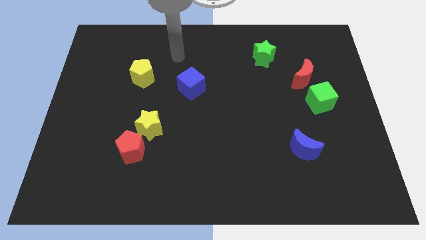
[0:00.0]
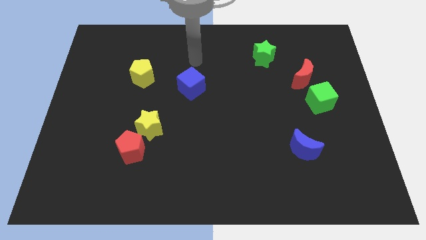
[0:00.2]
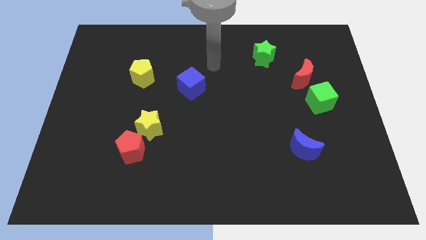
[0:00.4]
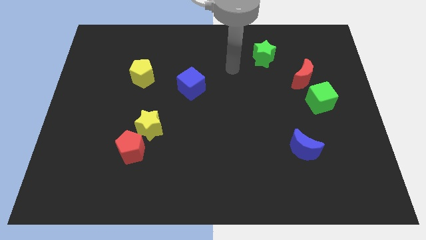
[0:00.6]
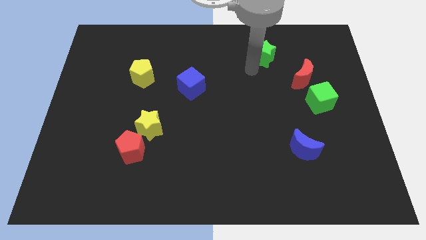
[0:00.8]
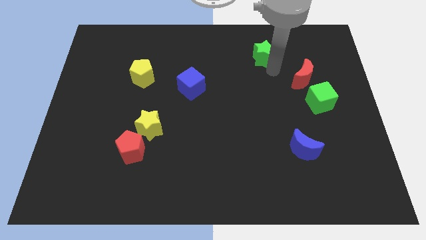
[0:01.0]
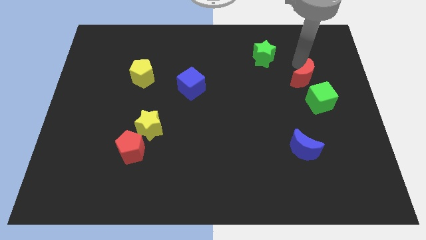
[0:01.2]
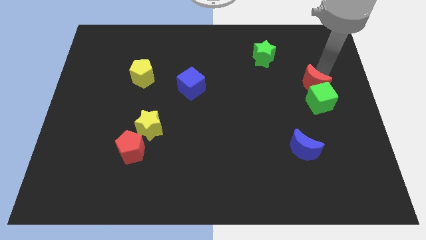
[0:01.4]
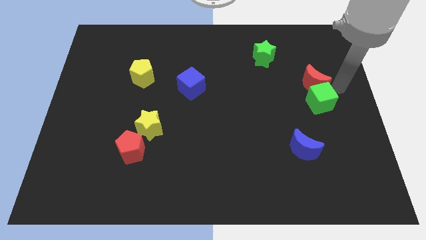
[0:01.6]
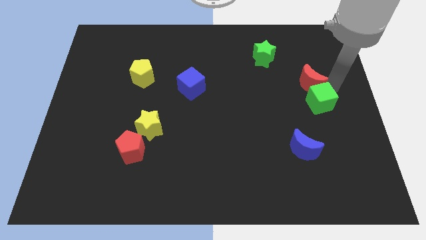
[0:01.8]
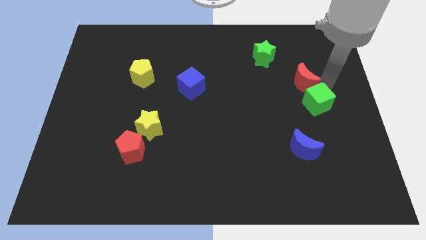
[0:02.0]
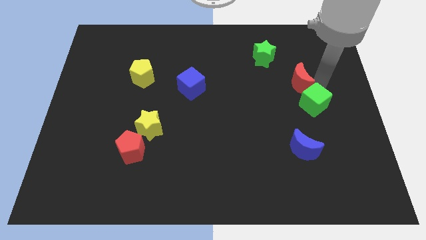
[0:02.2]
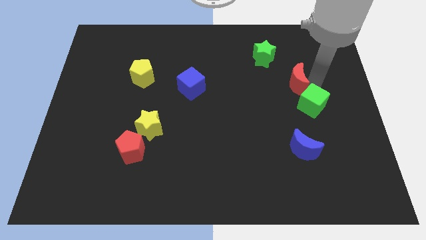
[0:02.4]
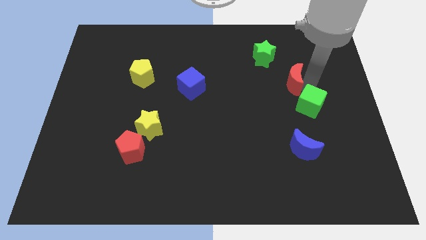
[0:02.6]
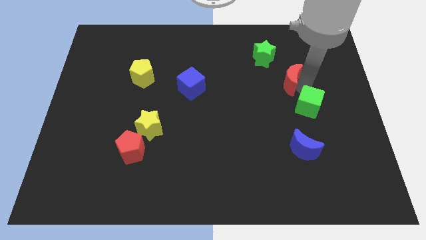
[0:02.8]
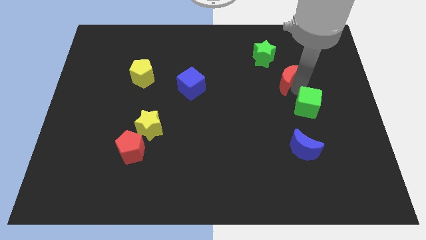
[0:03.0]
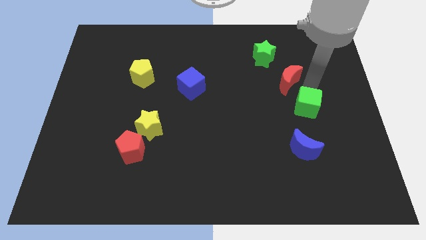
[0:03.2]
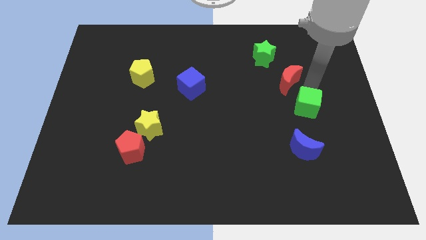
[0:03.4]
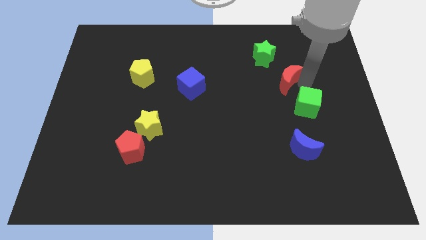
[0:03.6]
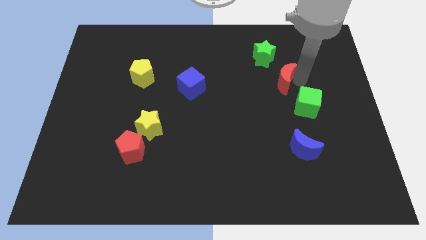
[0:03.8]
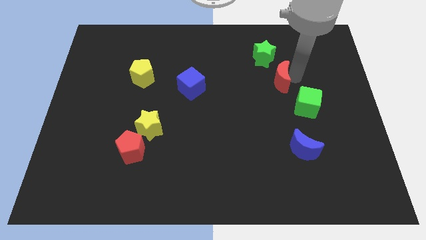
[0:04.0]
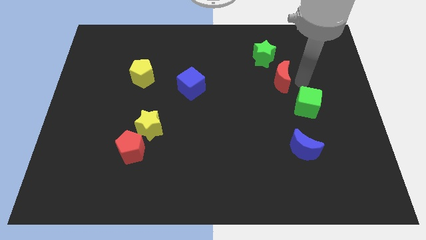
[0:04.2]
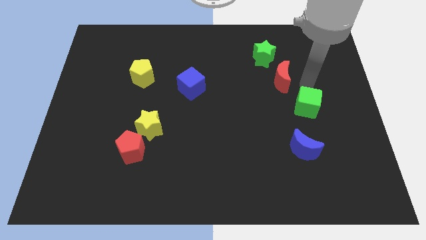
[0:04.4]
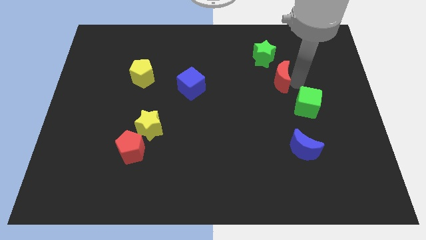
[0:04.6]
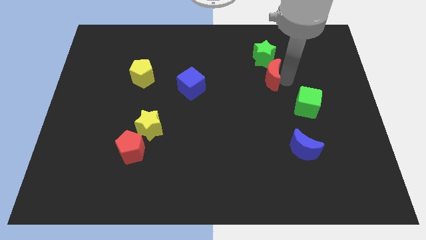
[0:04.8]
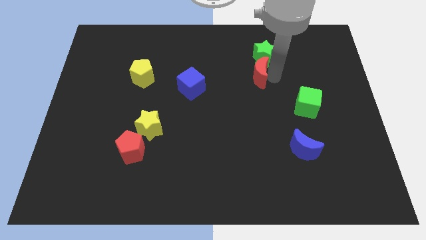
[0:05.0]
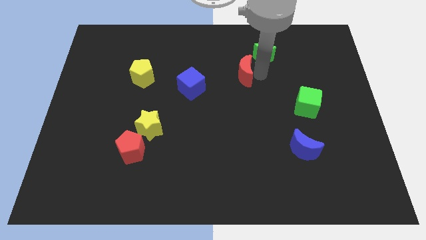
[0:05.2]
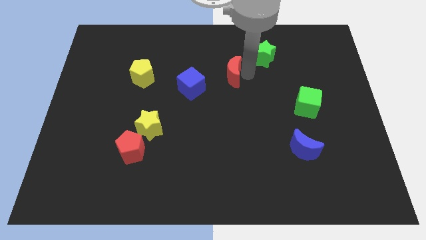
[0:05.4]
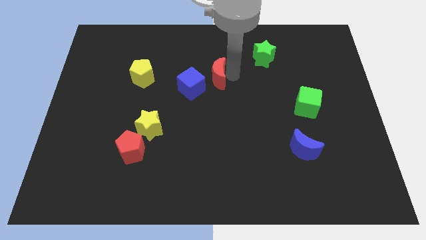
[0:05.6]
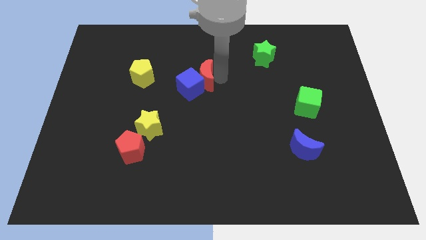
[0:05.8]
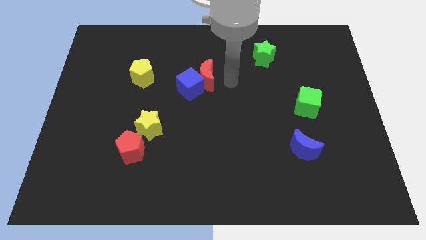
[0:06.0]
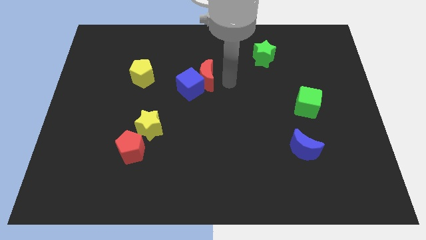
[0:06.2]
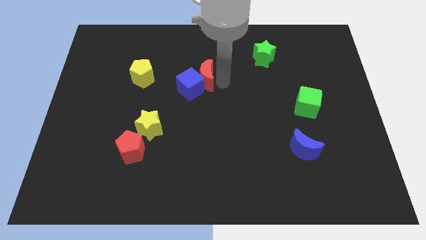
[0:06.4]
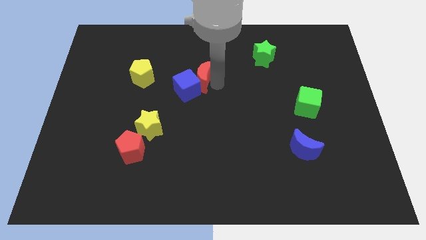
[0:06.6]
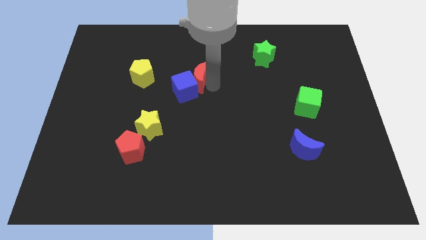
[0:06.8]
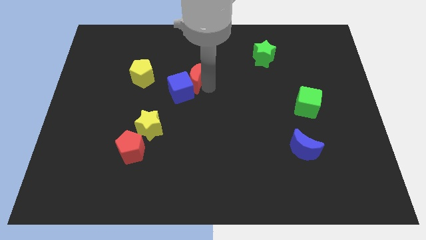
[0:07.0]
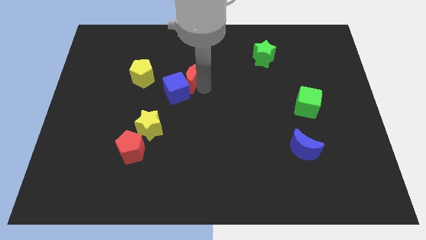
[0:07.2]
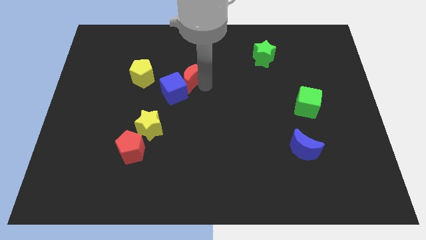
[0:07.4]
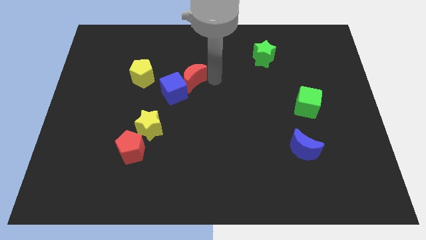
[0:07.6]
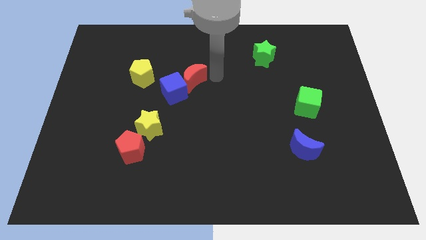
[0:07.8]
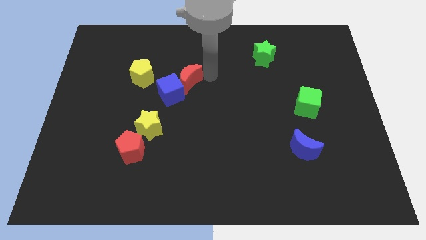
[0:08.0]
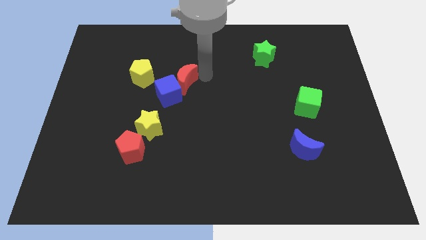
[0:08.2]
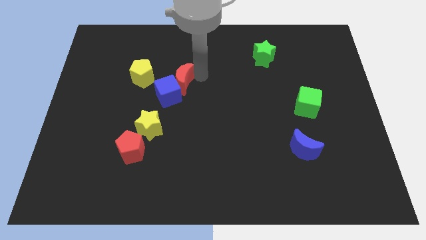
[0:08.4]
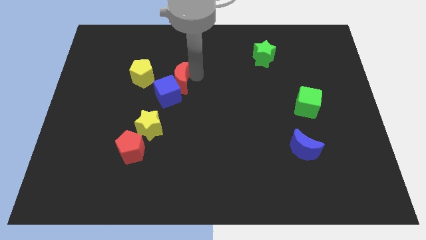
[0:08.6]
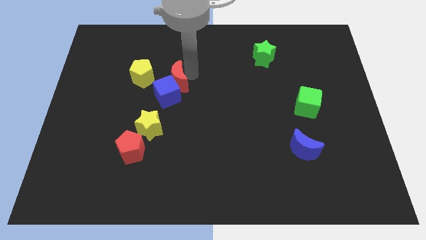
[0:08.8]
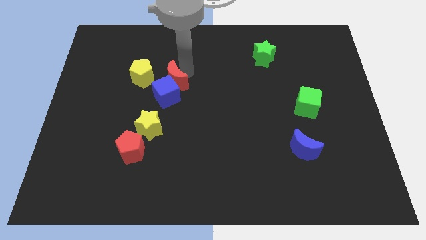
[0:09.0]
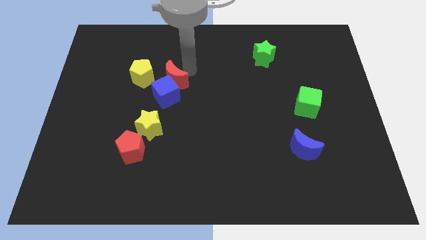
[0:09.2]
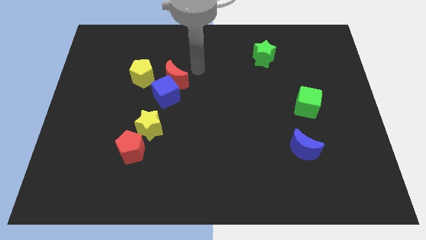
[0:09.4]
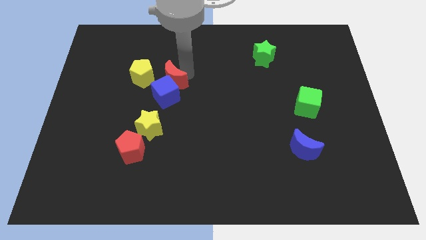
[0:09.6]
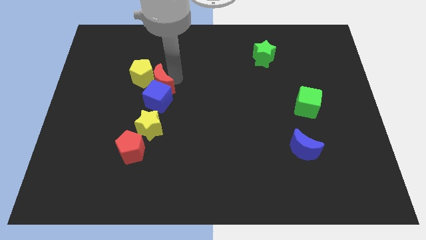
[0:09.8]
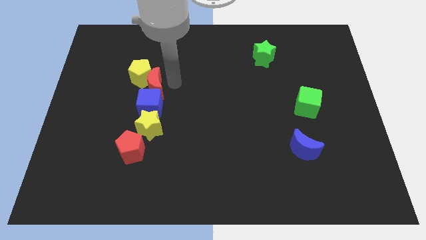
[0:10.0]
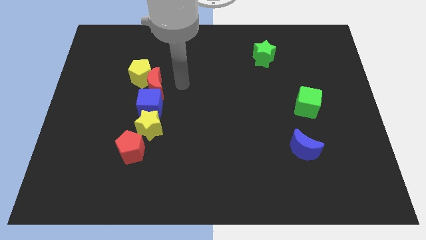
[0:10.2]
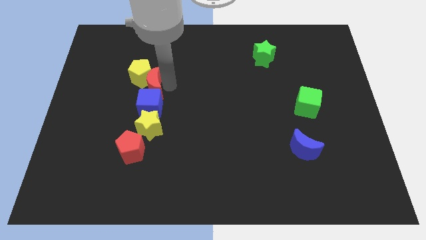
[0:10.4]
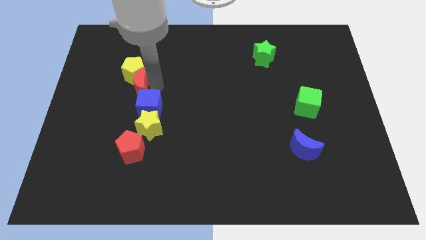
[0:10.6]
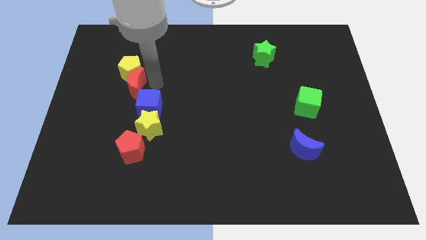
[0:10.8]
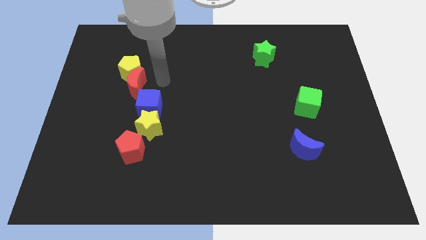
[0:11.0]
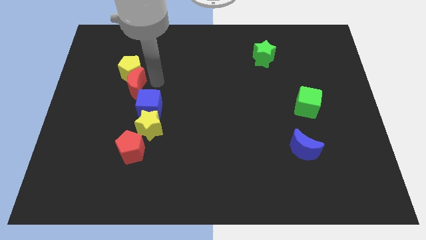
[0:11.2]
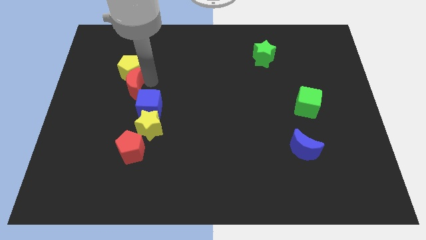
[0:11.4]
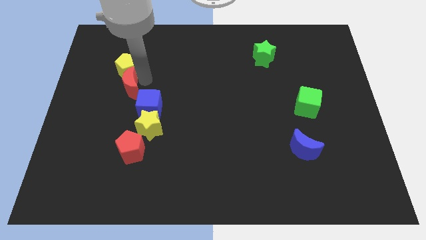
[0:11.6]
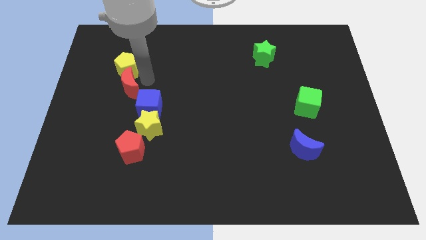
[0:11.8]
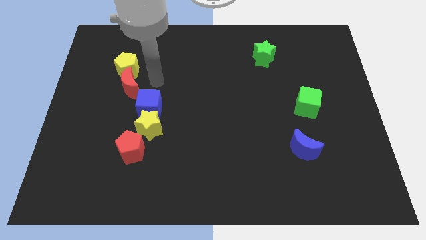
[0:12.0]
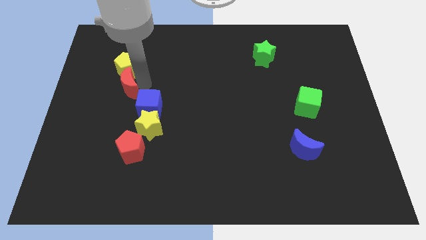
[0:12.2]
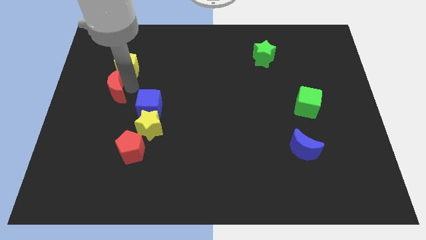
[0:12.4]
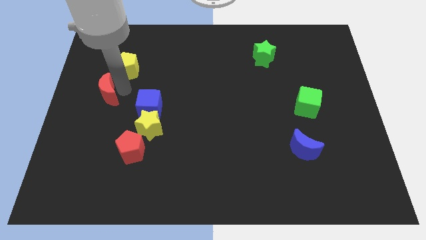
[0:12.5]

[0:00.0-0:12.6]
move the red moon to the center left
